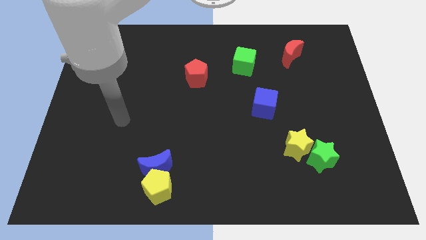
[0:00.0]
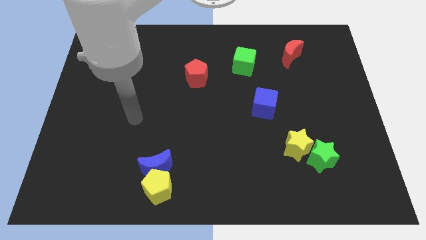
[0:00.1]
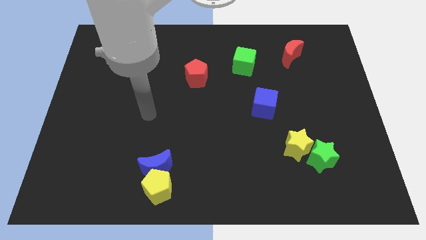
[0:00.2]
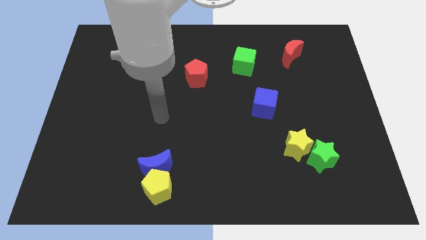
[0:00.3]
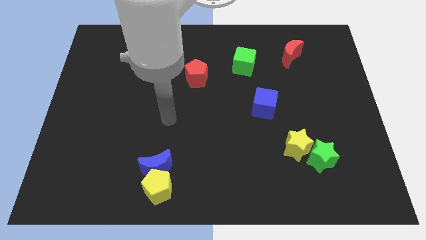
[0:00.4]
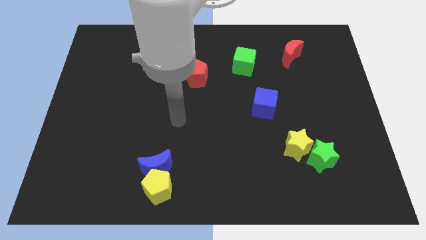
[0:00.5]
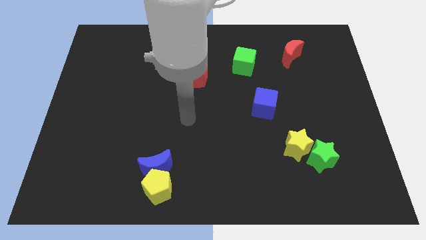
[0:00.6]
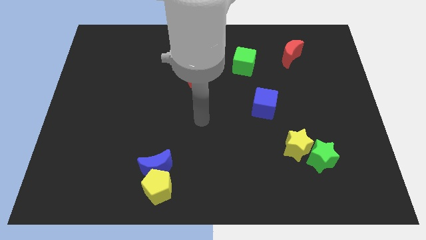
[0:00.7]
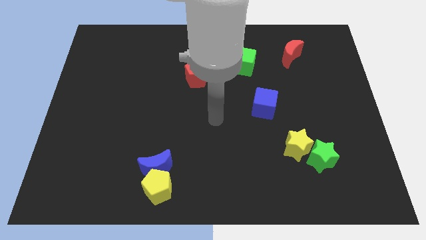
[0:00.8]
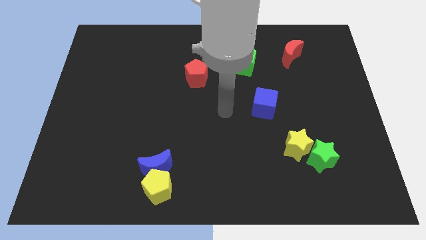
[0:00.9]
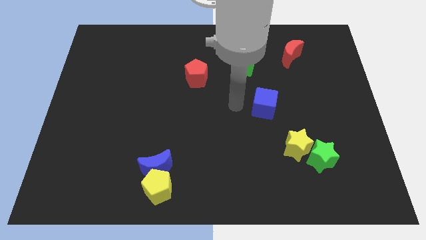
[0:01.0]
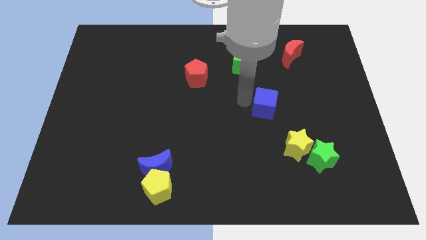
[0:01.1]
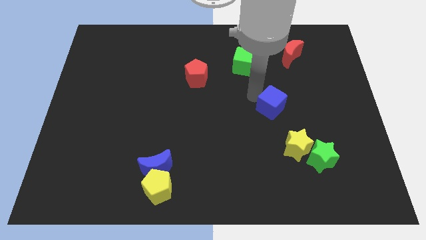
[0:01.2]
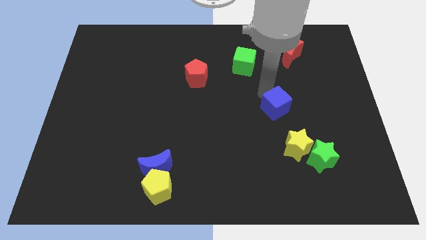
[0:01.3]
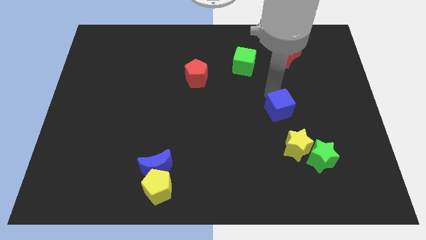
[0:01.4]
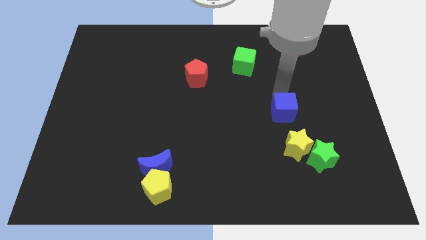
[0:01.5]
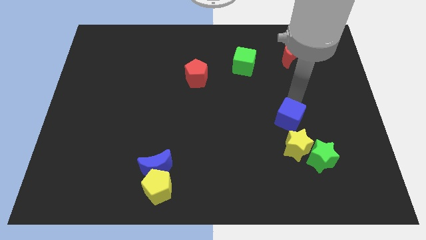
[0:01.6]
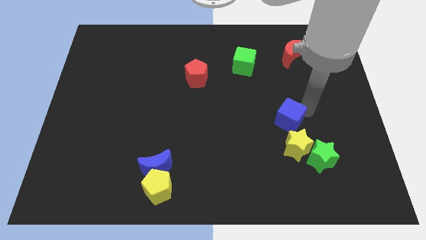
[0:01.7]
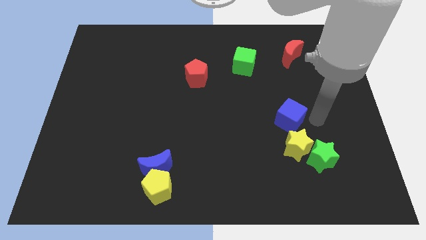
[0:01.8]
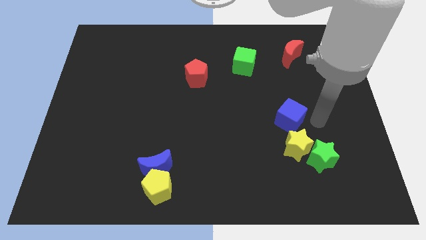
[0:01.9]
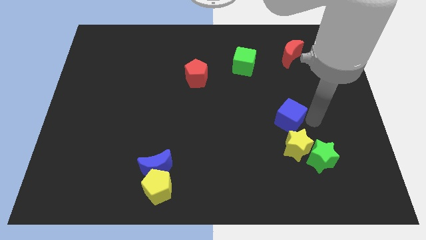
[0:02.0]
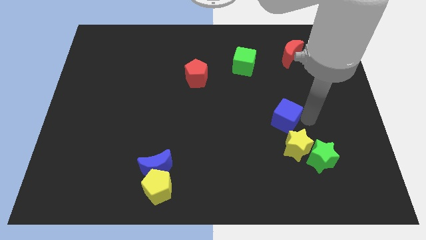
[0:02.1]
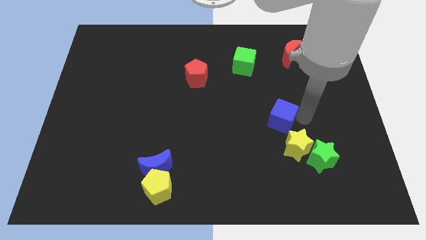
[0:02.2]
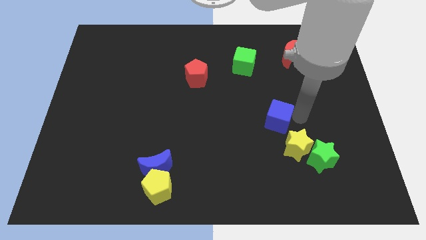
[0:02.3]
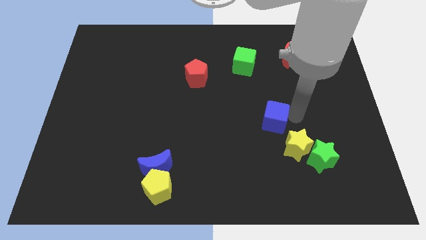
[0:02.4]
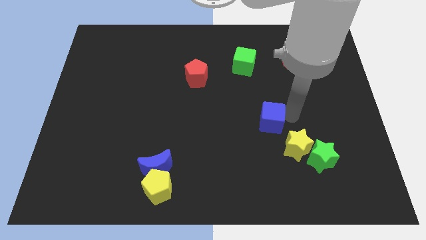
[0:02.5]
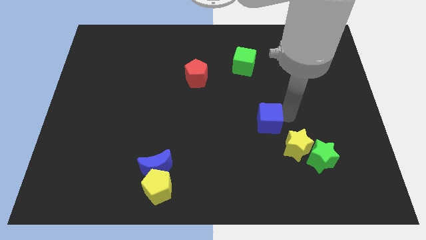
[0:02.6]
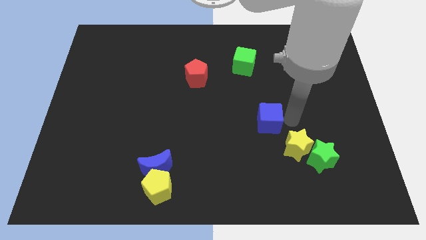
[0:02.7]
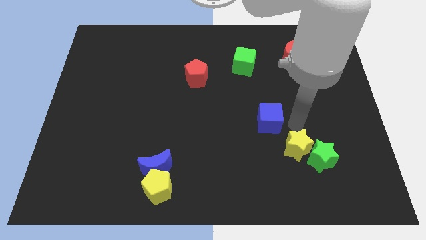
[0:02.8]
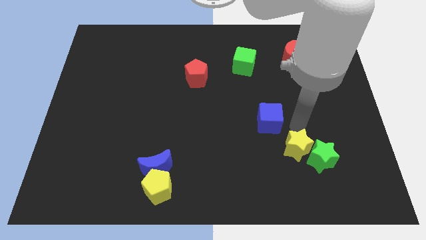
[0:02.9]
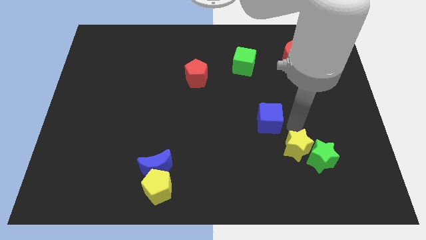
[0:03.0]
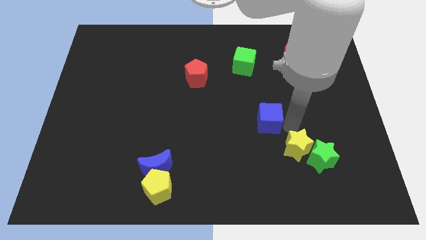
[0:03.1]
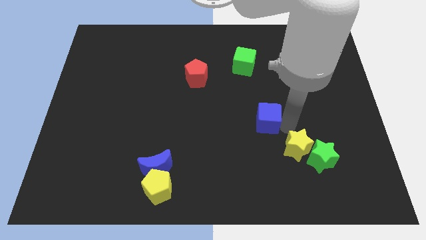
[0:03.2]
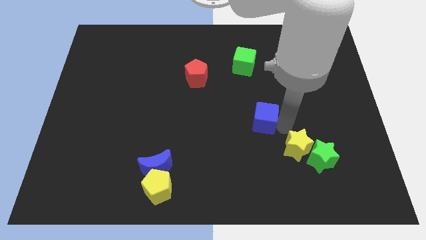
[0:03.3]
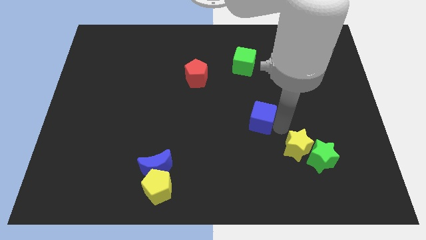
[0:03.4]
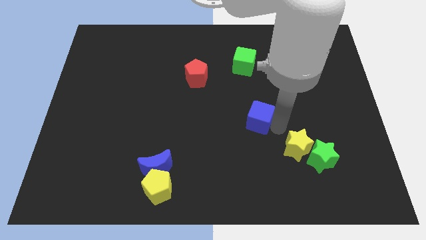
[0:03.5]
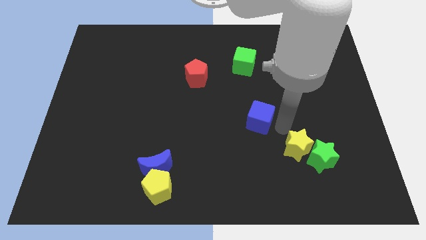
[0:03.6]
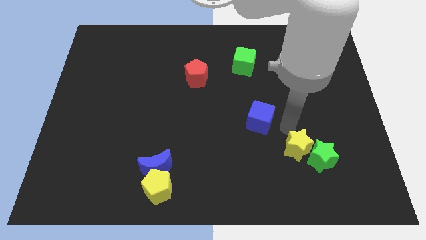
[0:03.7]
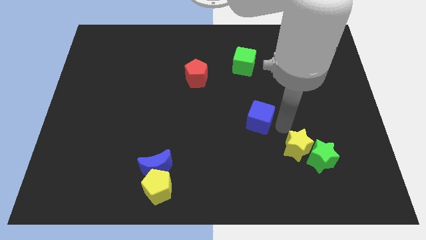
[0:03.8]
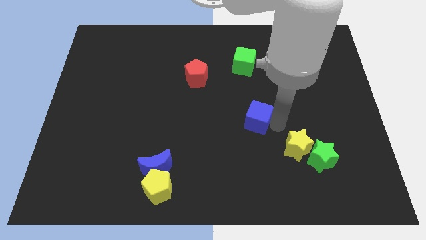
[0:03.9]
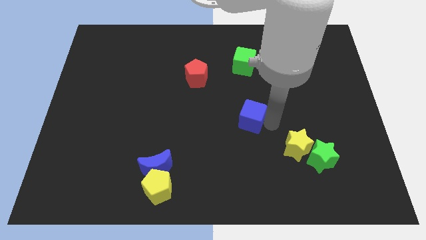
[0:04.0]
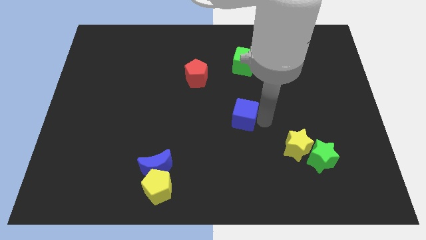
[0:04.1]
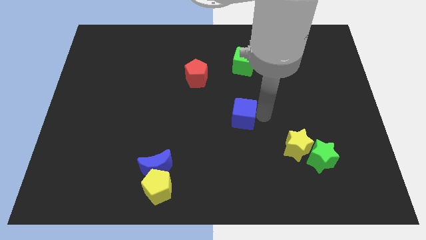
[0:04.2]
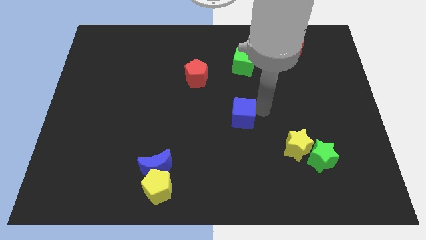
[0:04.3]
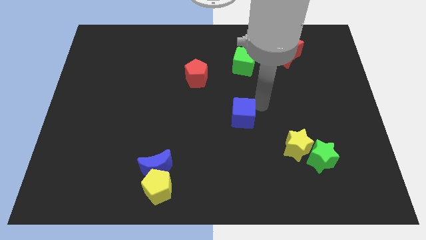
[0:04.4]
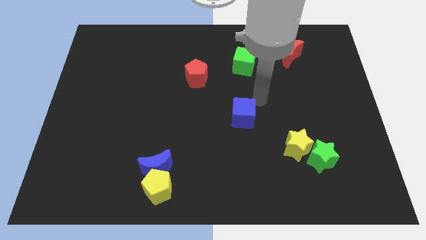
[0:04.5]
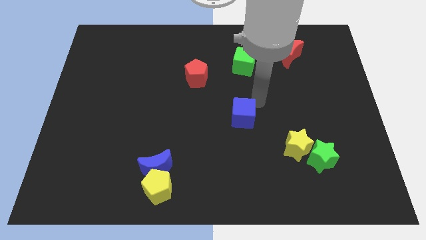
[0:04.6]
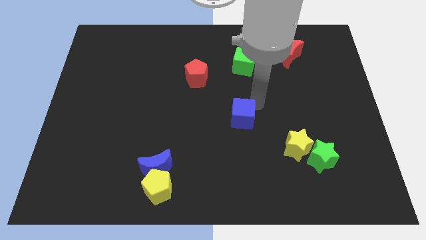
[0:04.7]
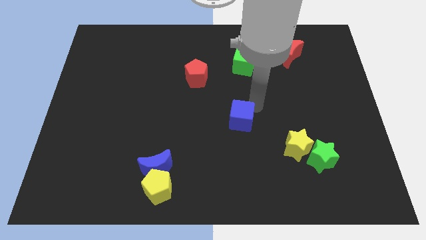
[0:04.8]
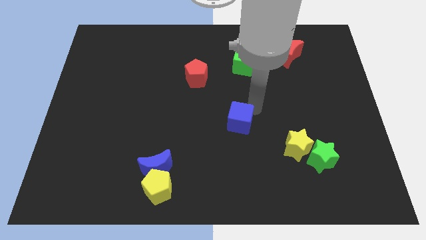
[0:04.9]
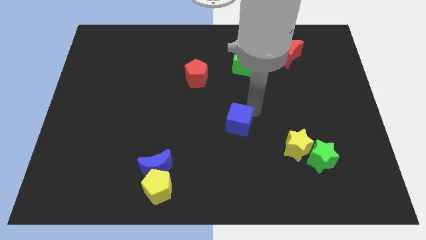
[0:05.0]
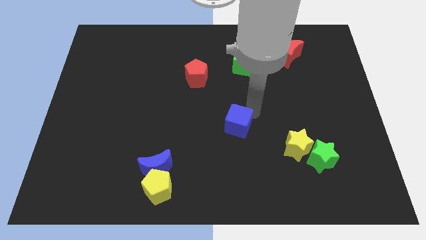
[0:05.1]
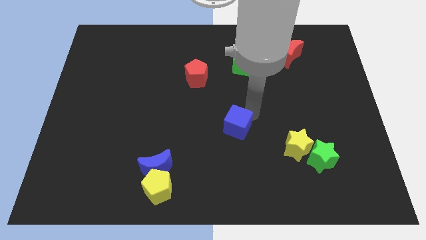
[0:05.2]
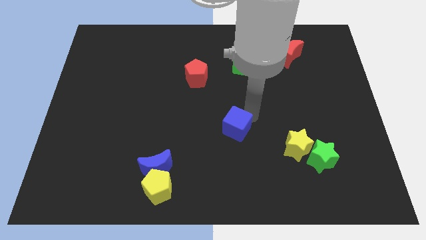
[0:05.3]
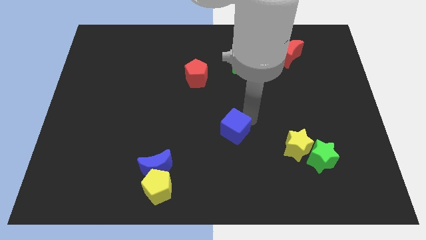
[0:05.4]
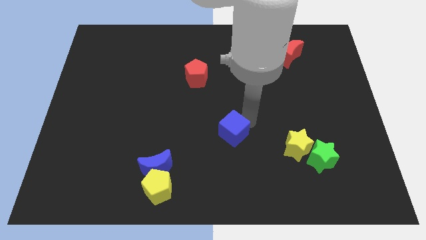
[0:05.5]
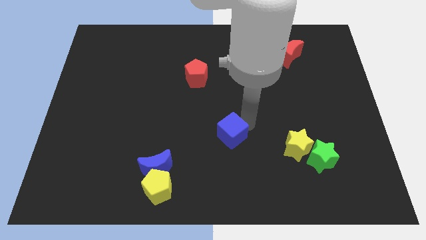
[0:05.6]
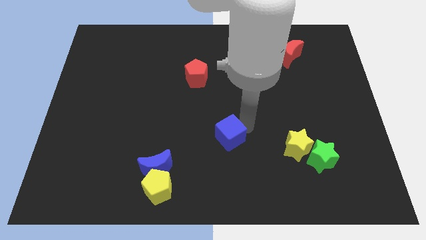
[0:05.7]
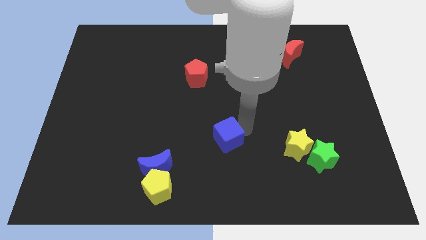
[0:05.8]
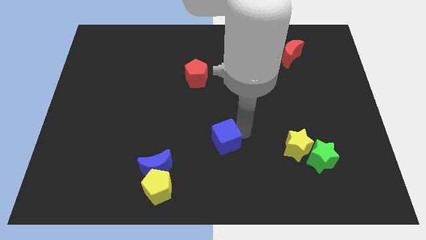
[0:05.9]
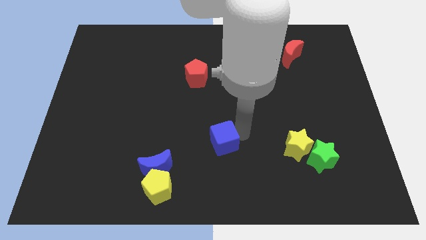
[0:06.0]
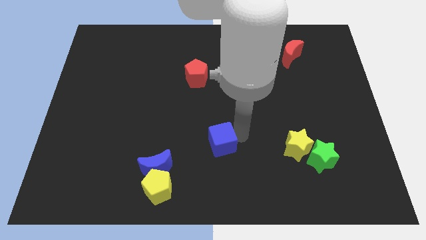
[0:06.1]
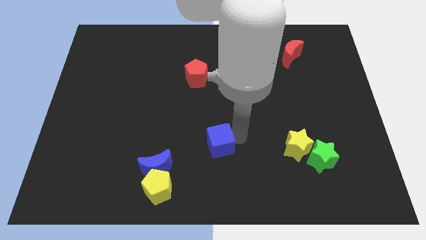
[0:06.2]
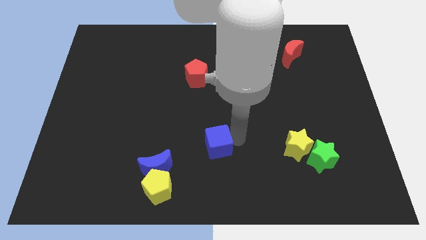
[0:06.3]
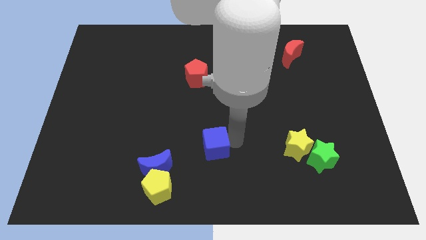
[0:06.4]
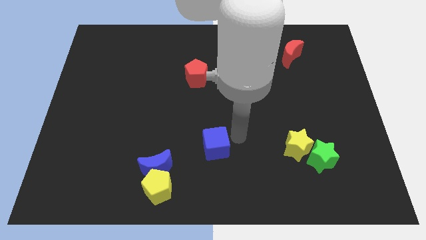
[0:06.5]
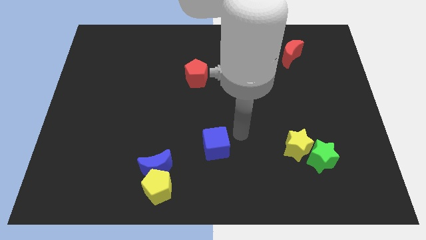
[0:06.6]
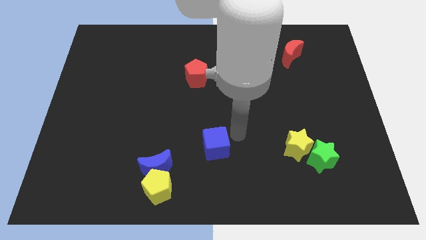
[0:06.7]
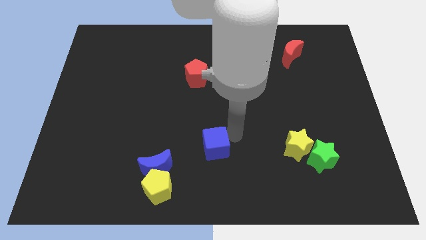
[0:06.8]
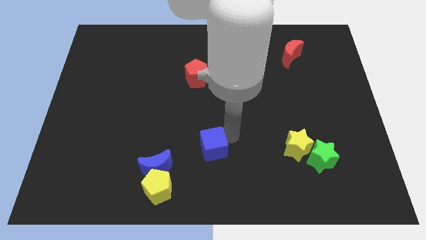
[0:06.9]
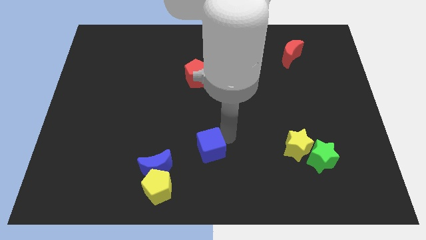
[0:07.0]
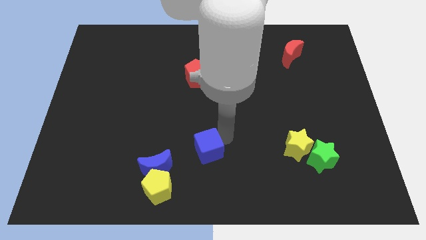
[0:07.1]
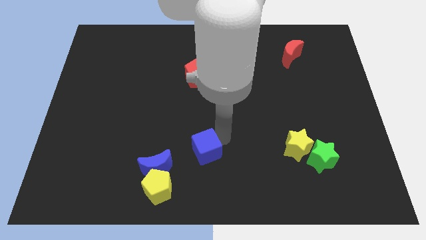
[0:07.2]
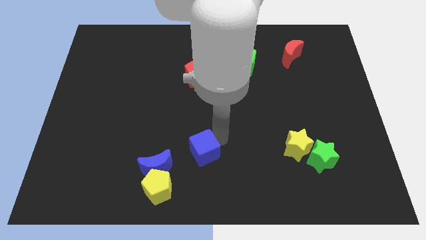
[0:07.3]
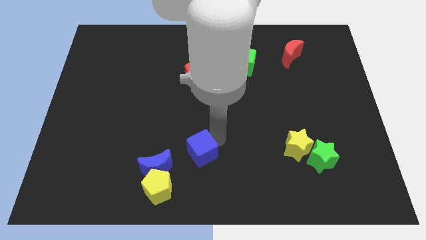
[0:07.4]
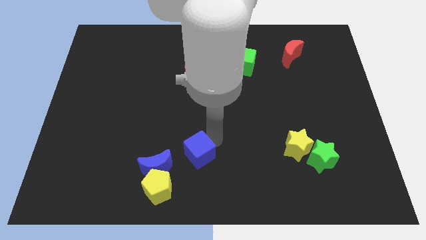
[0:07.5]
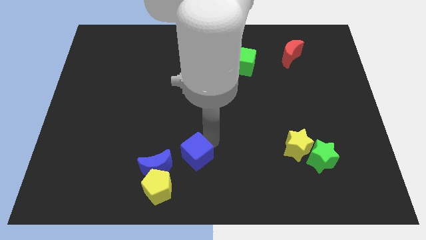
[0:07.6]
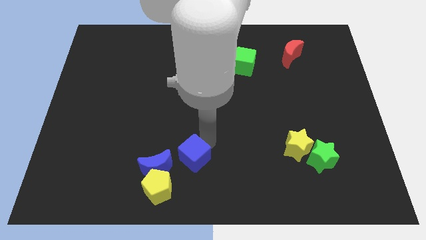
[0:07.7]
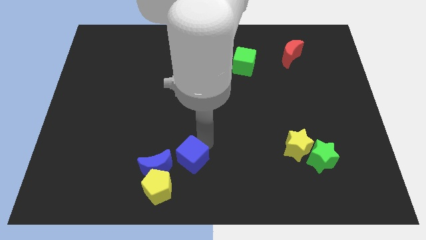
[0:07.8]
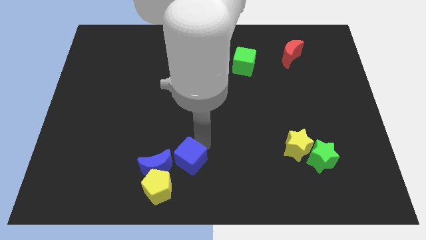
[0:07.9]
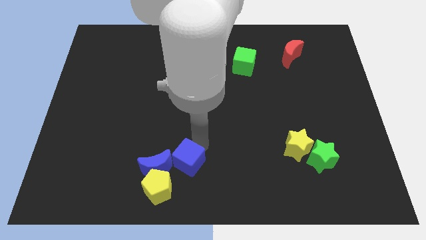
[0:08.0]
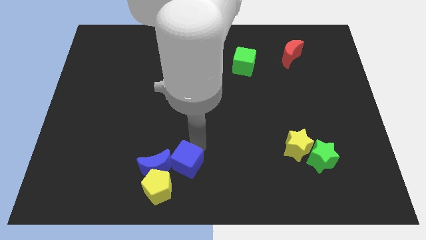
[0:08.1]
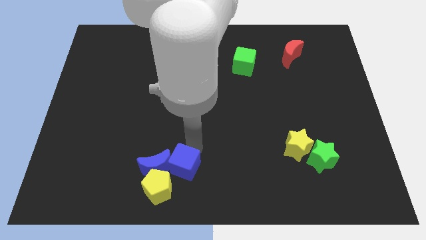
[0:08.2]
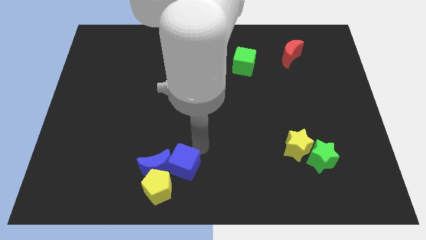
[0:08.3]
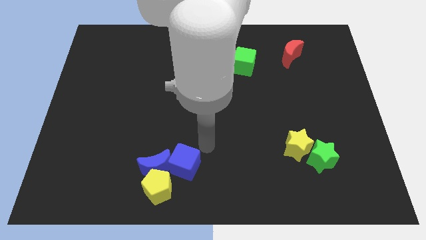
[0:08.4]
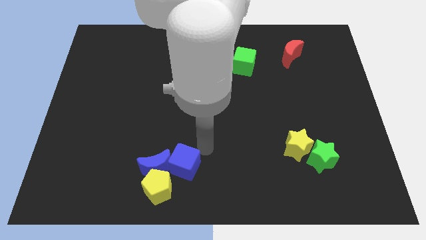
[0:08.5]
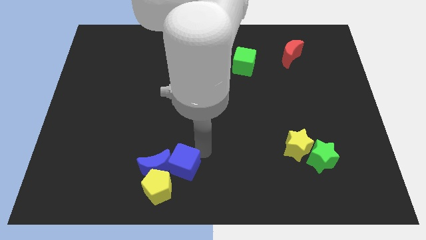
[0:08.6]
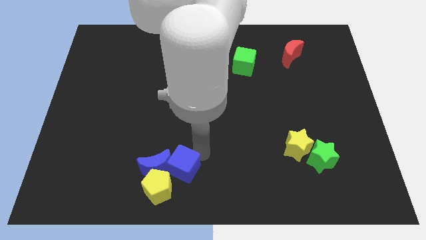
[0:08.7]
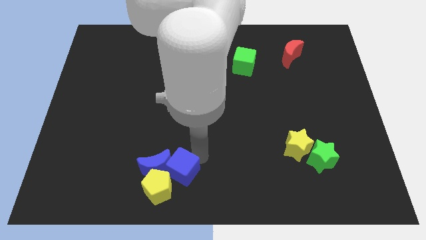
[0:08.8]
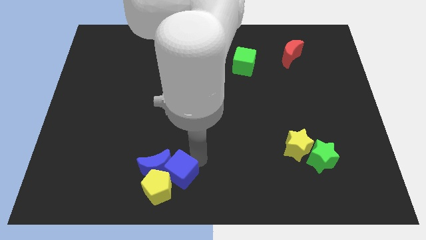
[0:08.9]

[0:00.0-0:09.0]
slide the blue cube close to the yellow pentagon
